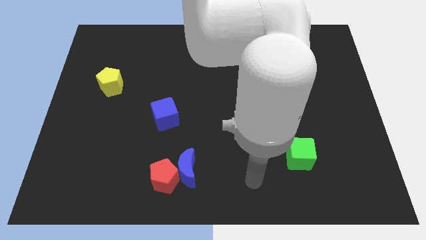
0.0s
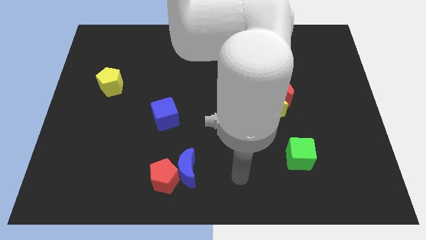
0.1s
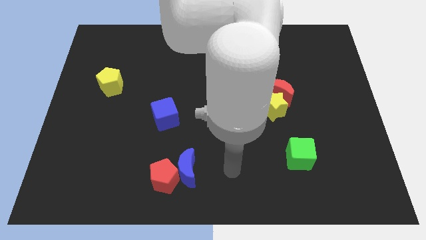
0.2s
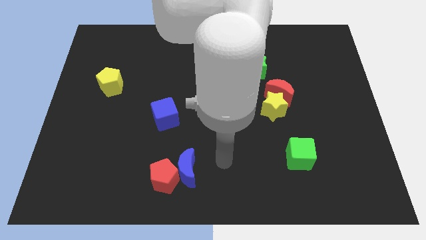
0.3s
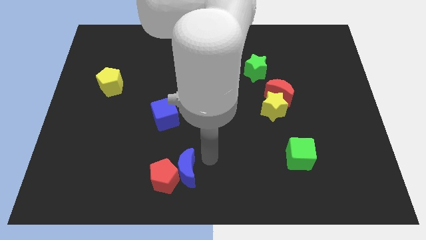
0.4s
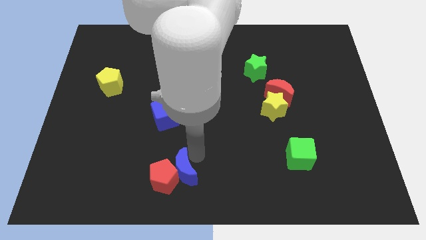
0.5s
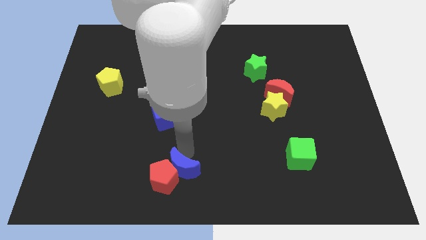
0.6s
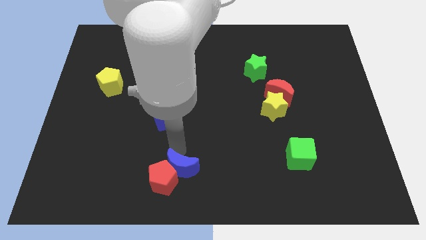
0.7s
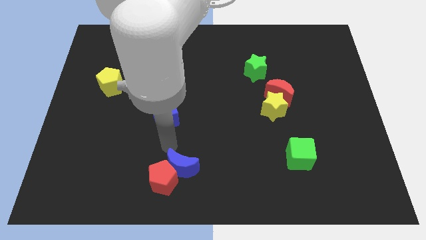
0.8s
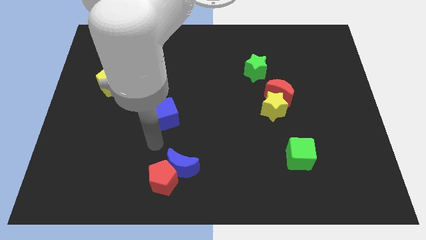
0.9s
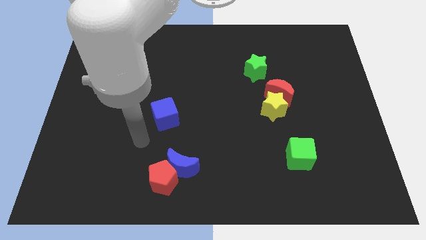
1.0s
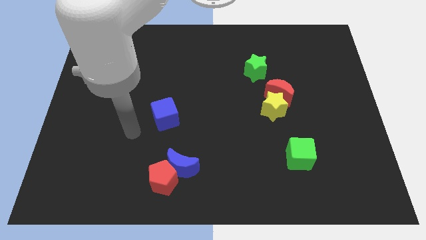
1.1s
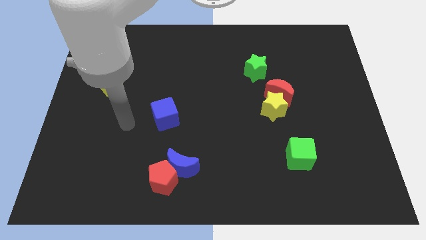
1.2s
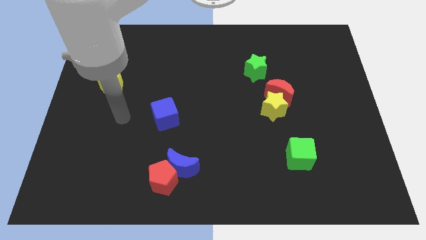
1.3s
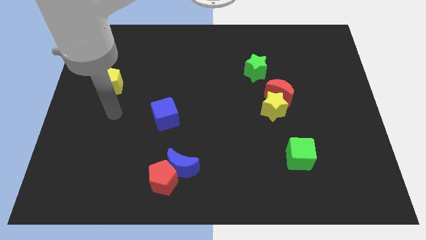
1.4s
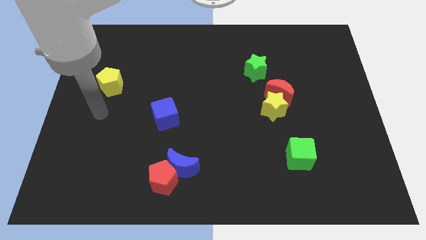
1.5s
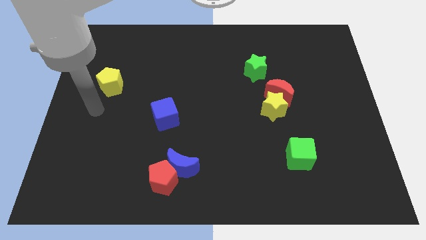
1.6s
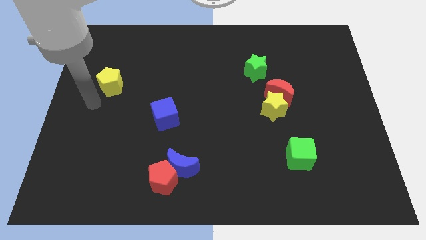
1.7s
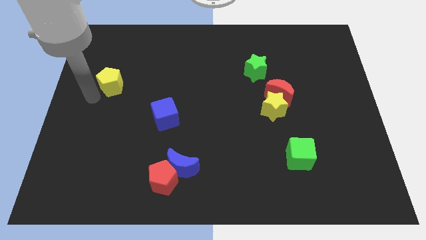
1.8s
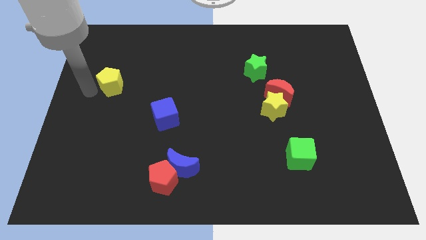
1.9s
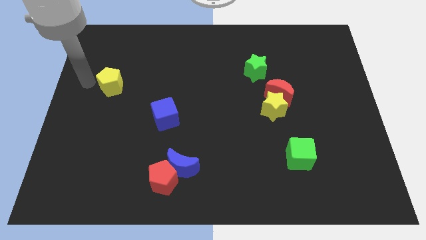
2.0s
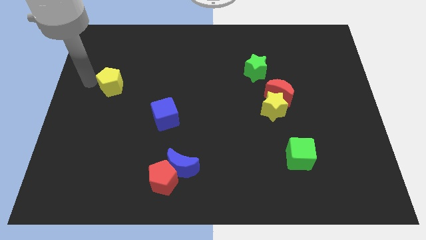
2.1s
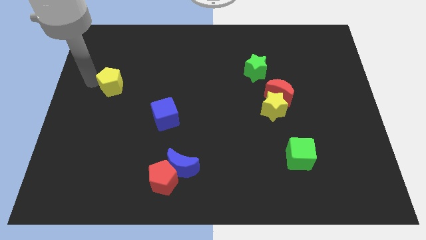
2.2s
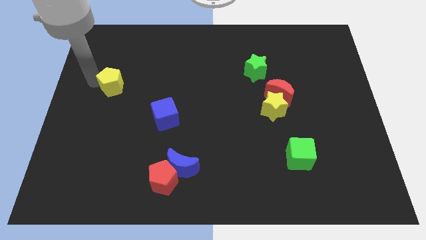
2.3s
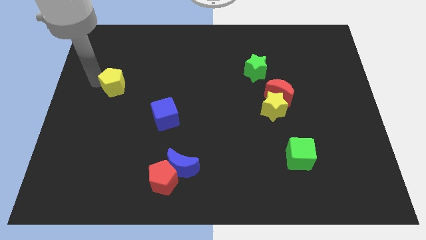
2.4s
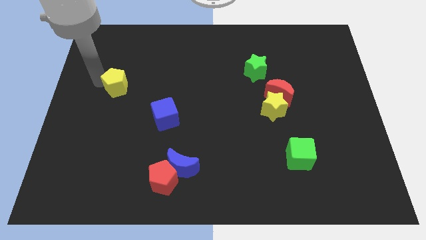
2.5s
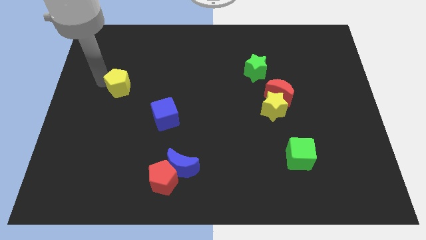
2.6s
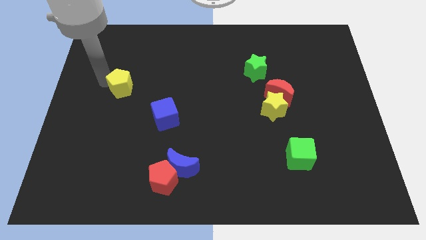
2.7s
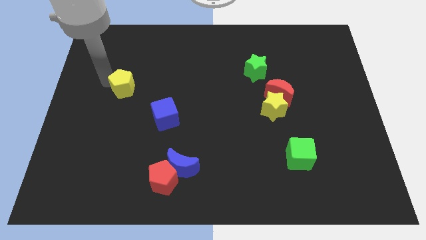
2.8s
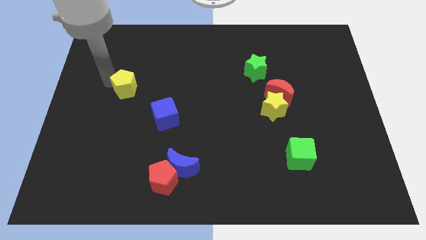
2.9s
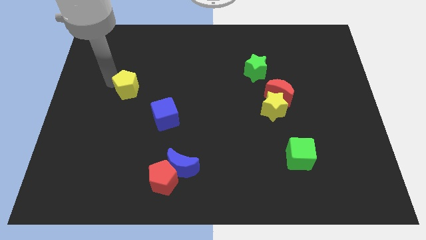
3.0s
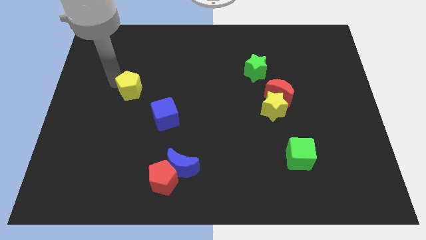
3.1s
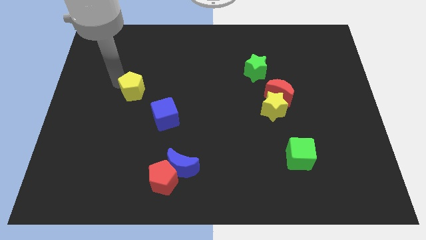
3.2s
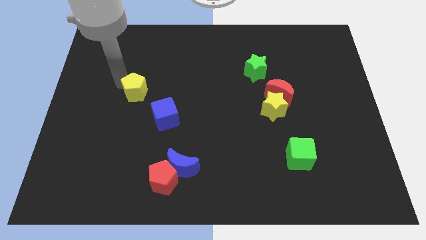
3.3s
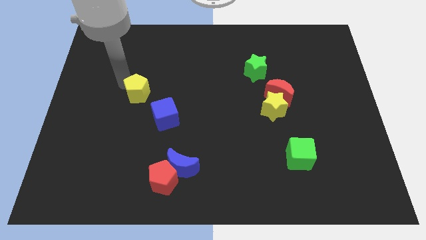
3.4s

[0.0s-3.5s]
slightly move the yellow pentagon right

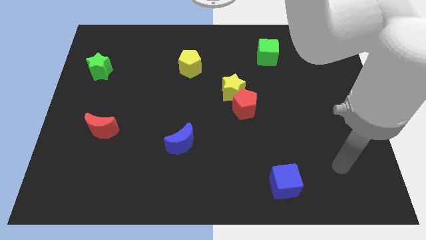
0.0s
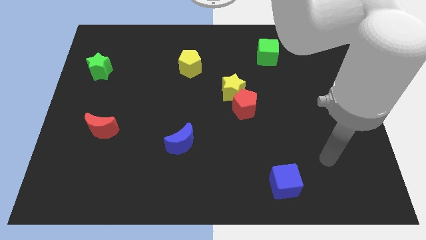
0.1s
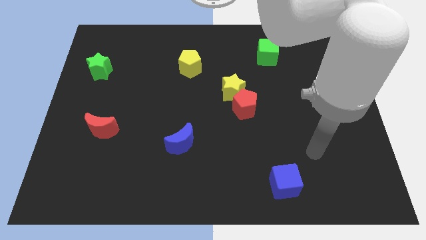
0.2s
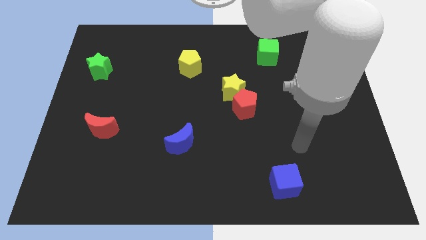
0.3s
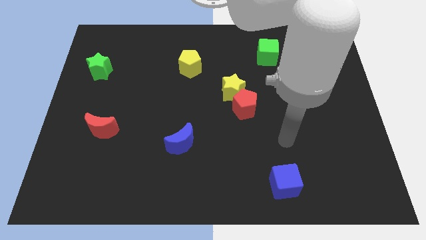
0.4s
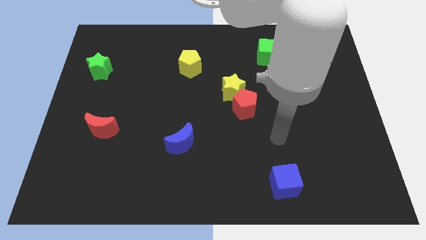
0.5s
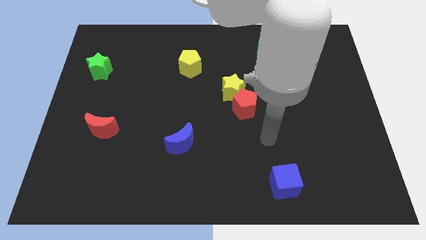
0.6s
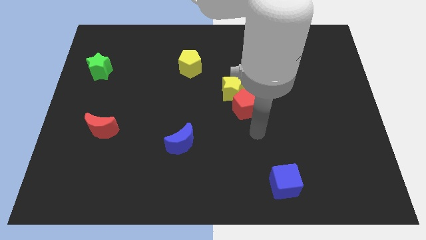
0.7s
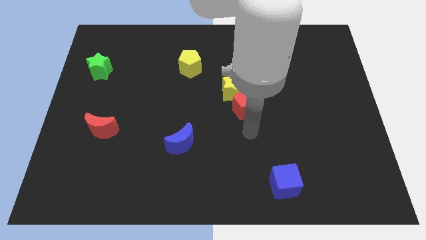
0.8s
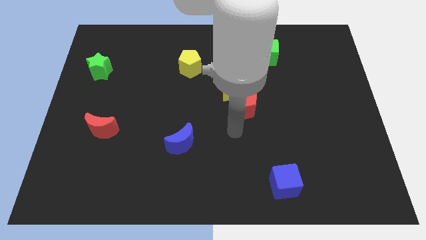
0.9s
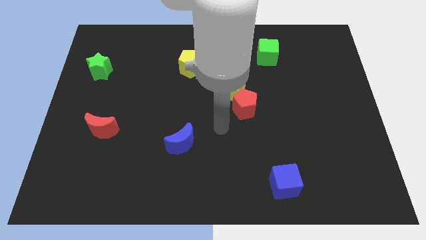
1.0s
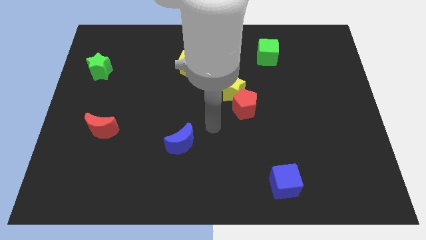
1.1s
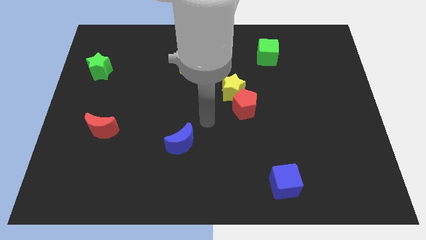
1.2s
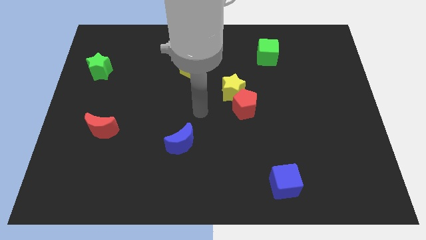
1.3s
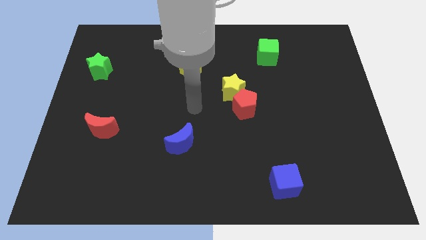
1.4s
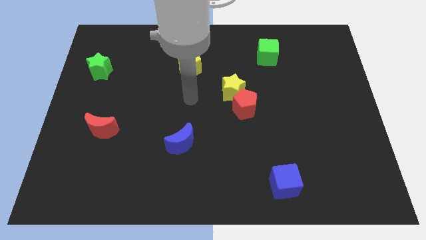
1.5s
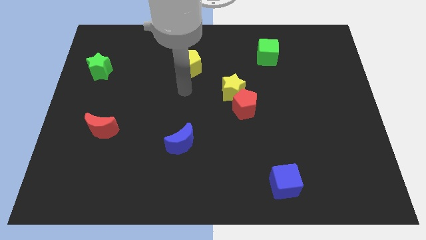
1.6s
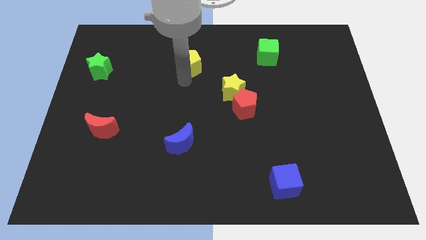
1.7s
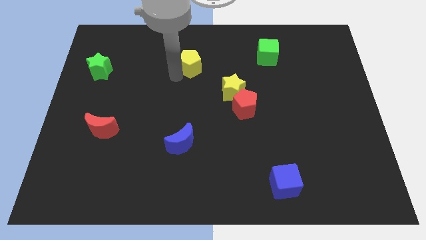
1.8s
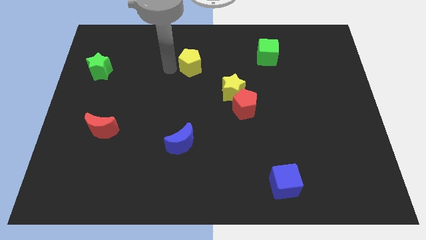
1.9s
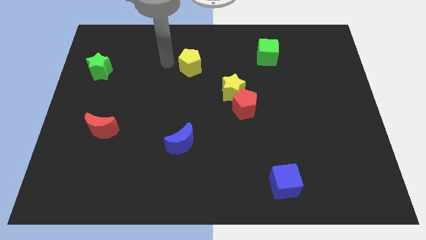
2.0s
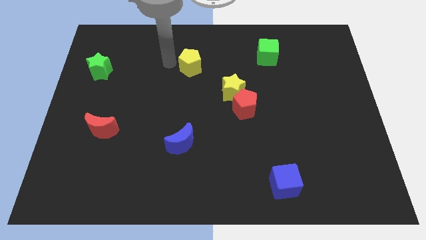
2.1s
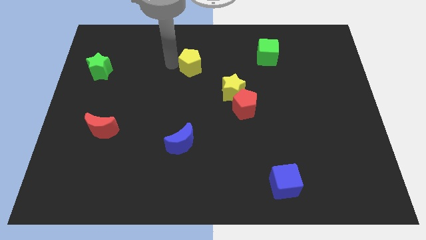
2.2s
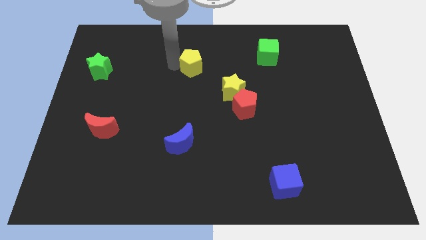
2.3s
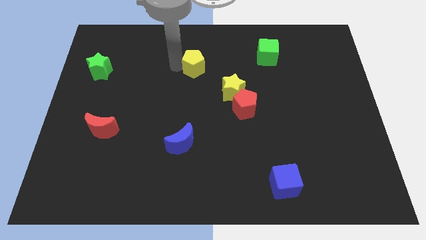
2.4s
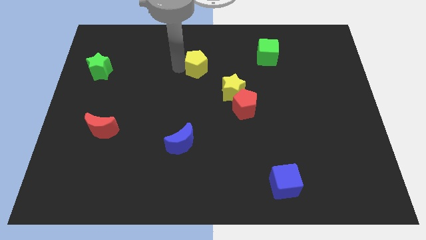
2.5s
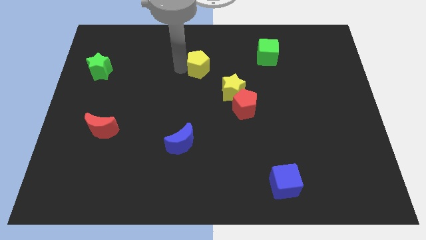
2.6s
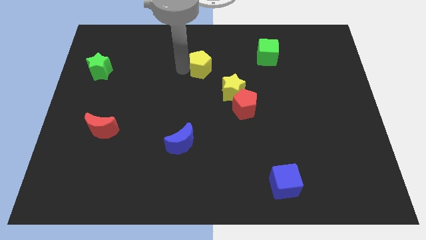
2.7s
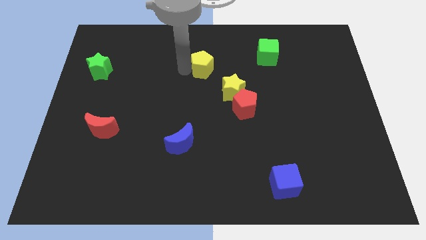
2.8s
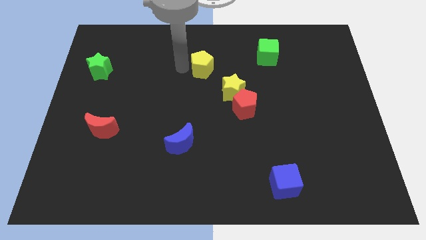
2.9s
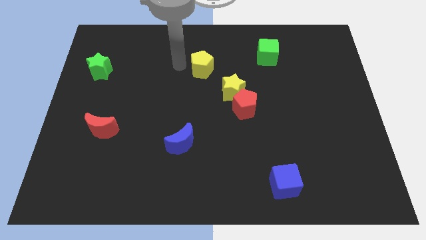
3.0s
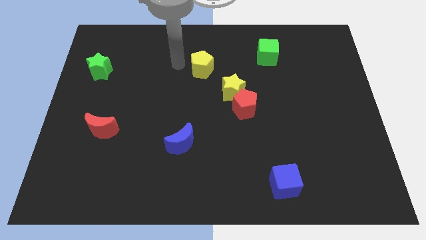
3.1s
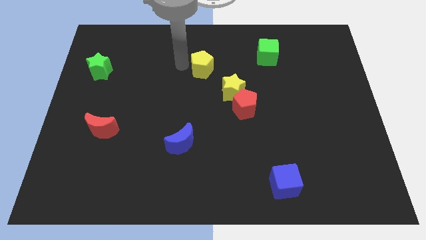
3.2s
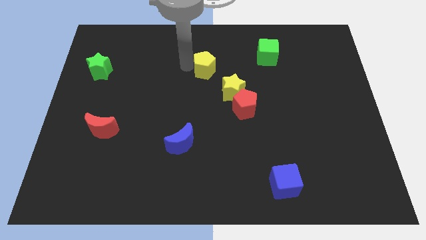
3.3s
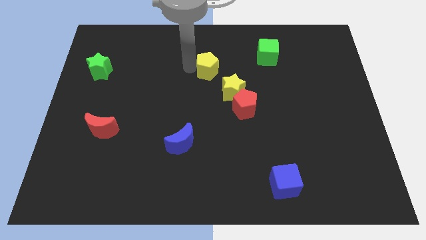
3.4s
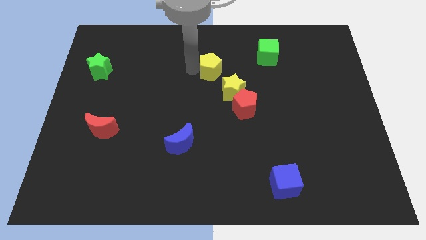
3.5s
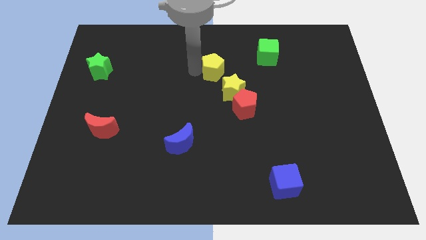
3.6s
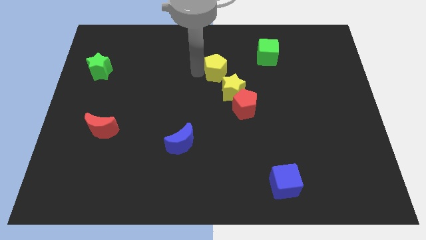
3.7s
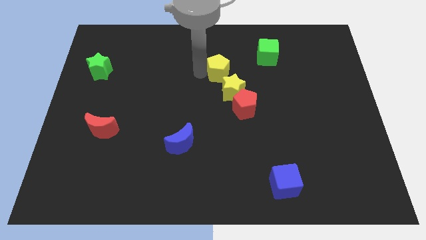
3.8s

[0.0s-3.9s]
slightly slide the yellow pentagon right

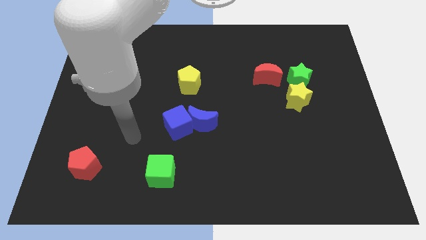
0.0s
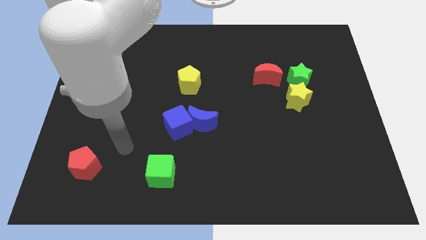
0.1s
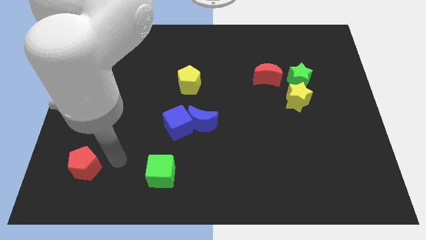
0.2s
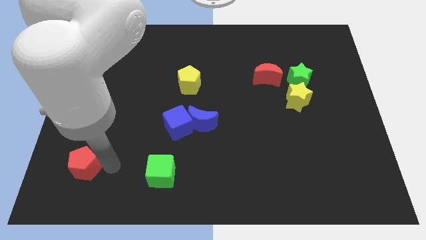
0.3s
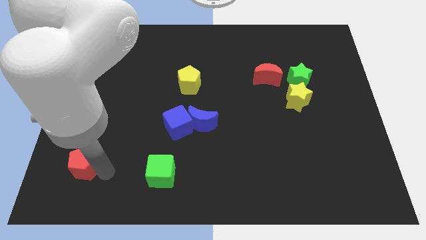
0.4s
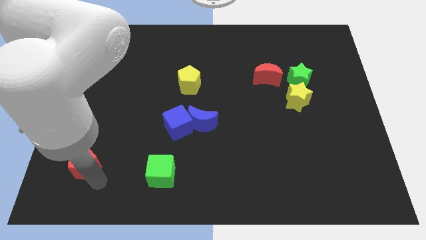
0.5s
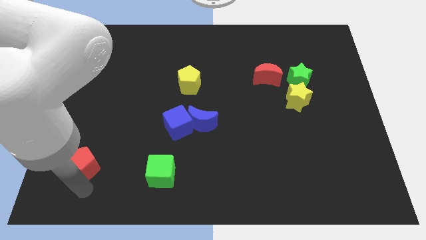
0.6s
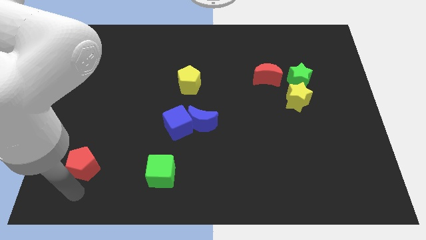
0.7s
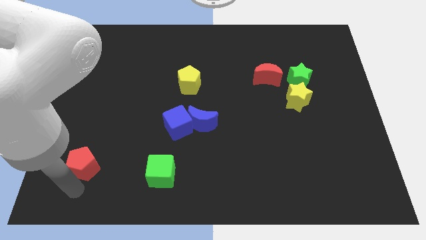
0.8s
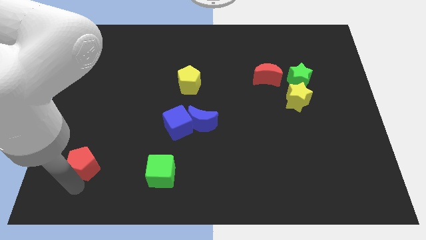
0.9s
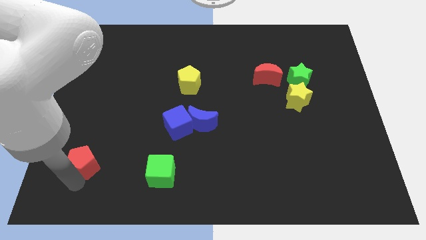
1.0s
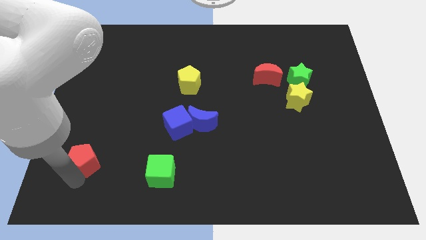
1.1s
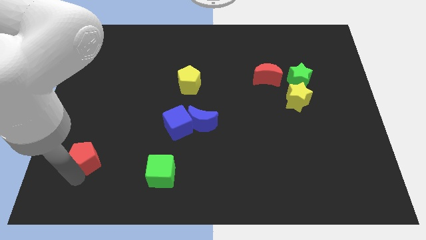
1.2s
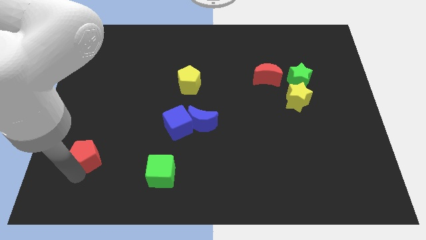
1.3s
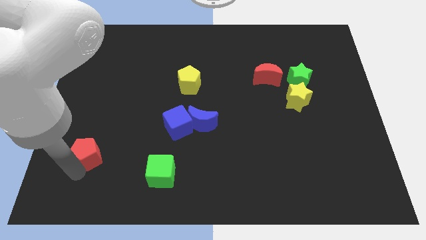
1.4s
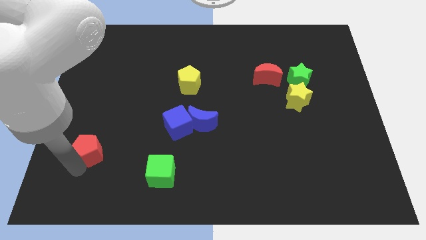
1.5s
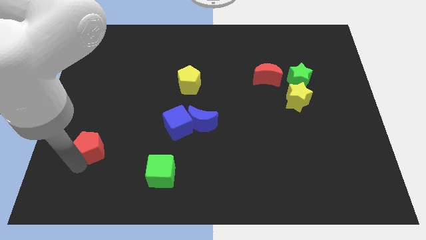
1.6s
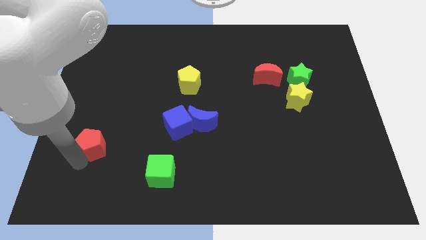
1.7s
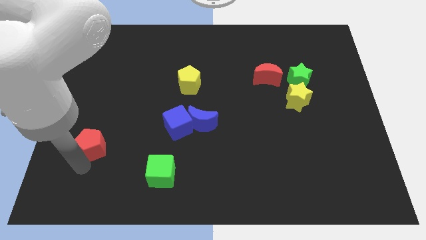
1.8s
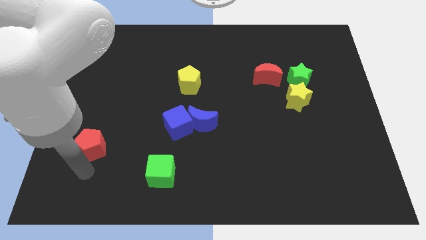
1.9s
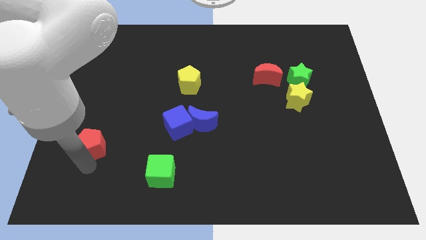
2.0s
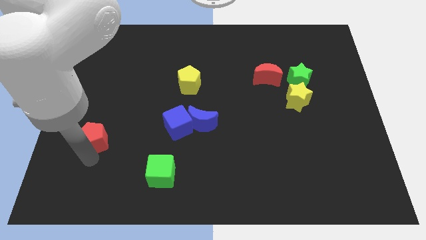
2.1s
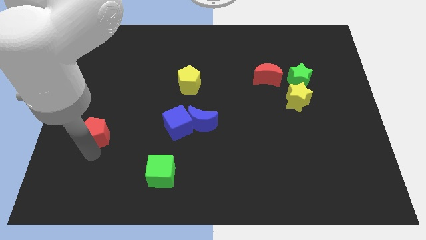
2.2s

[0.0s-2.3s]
slightly move the red pentagon up
